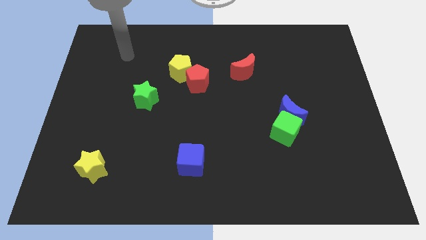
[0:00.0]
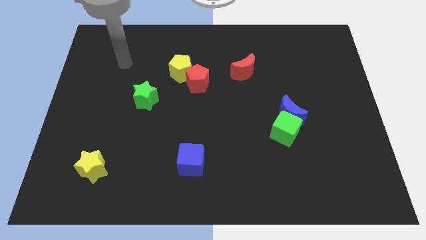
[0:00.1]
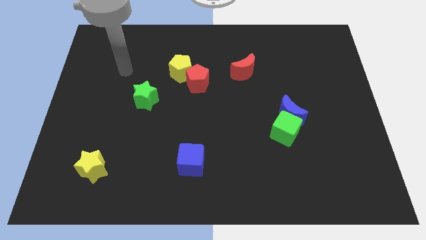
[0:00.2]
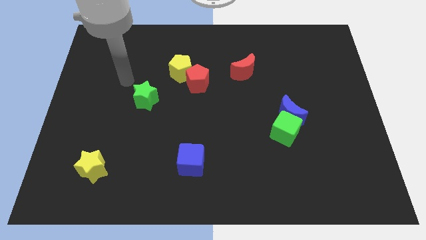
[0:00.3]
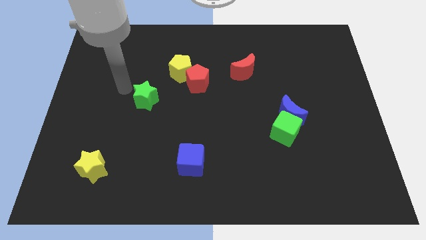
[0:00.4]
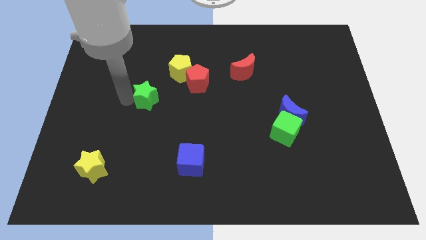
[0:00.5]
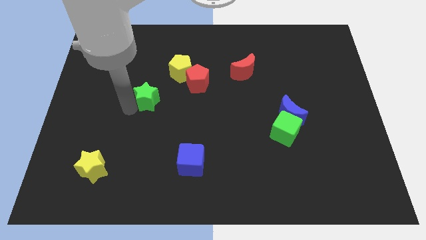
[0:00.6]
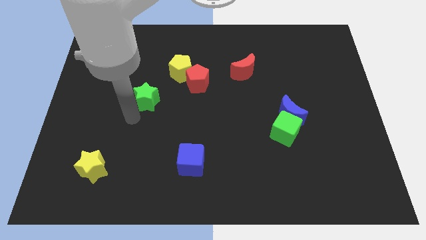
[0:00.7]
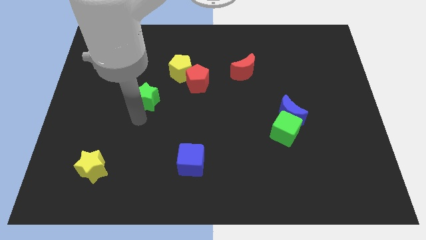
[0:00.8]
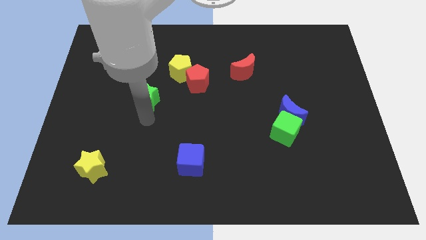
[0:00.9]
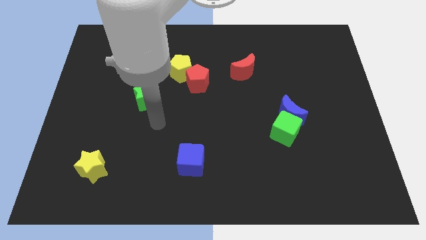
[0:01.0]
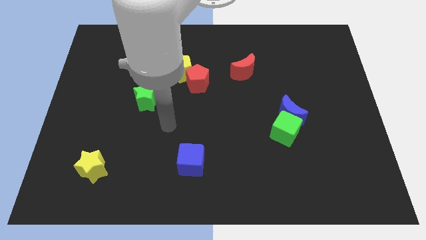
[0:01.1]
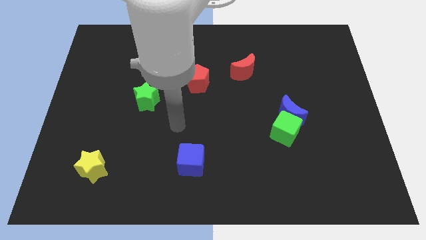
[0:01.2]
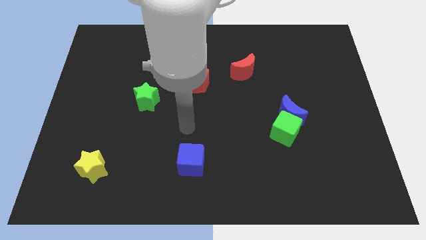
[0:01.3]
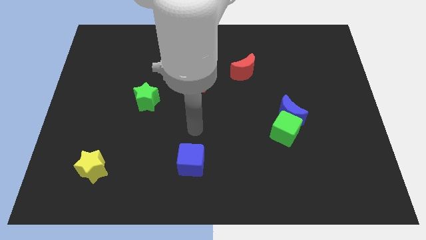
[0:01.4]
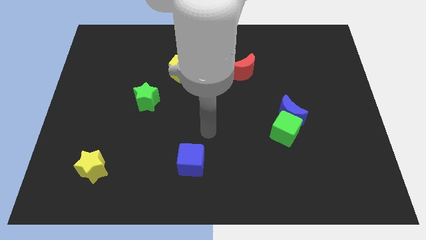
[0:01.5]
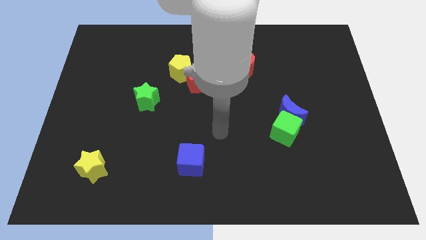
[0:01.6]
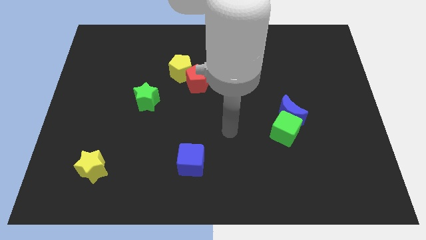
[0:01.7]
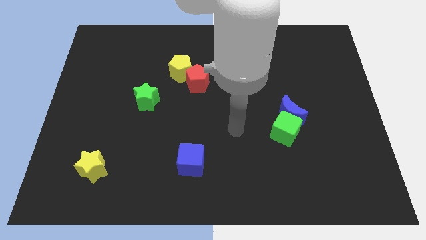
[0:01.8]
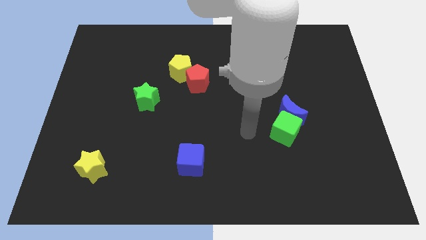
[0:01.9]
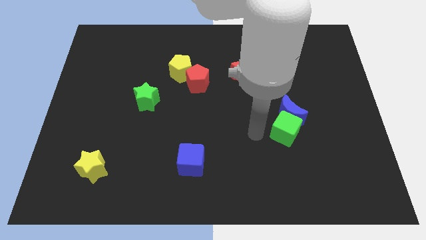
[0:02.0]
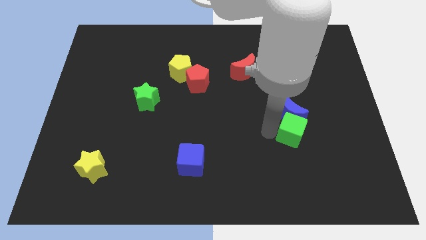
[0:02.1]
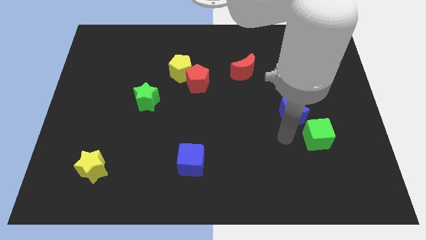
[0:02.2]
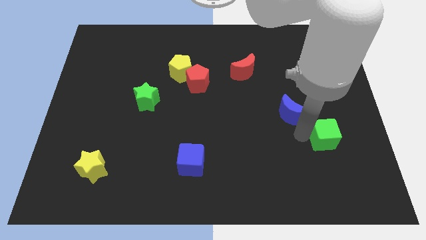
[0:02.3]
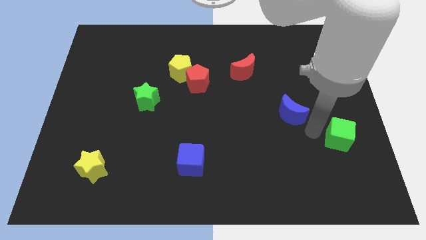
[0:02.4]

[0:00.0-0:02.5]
move the blue moon away from the green cube

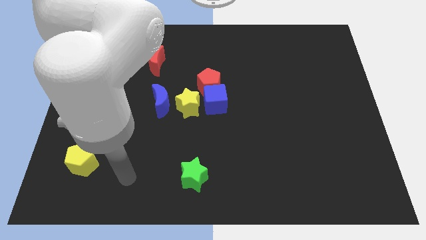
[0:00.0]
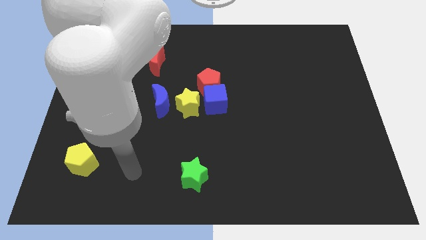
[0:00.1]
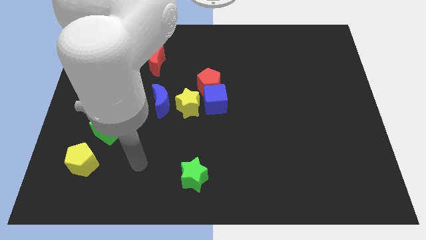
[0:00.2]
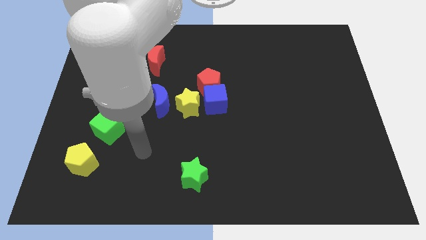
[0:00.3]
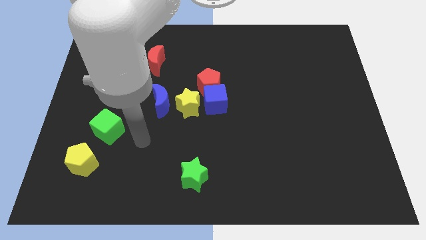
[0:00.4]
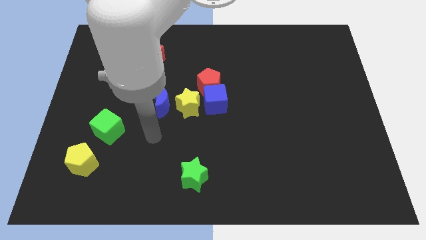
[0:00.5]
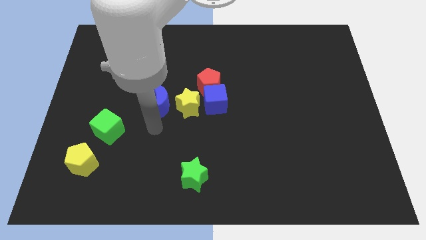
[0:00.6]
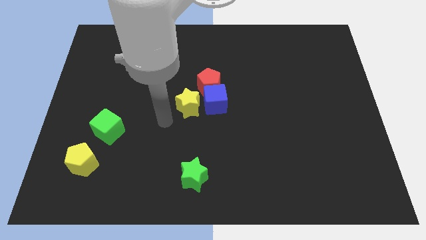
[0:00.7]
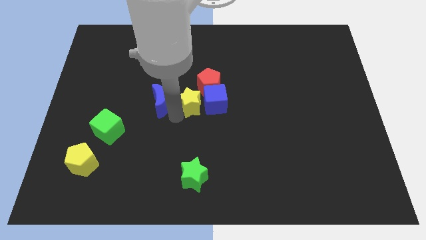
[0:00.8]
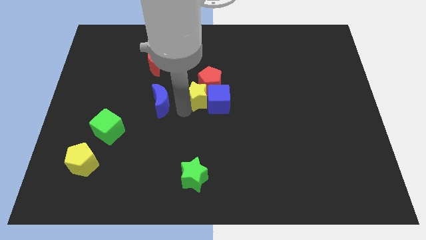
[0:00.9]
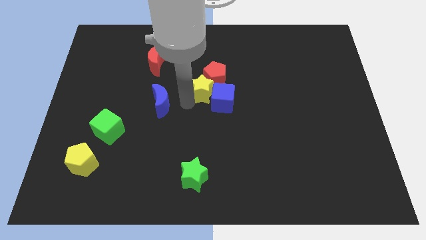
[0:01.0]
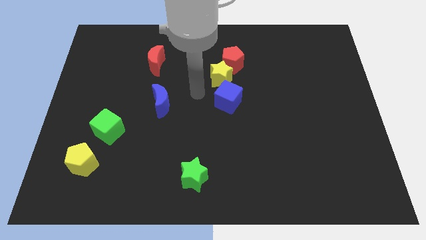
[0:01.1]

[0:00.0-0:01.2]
move the blue cube away from the red pentagon and yellow star

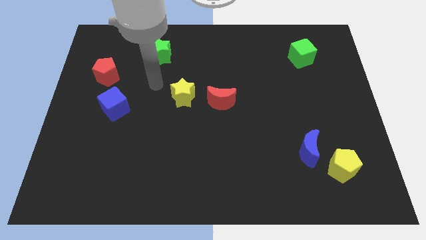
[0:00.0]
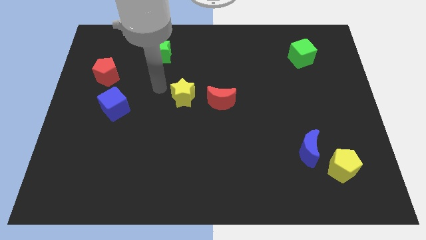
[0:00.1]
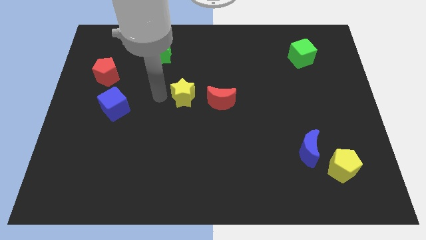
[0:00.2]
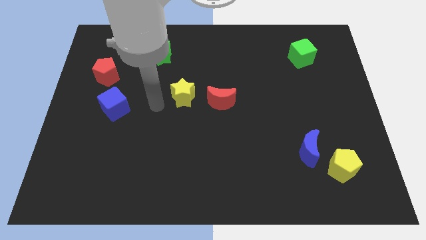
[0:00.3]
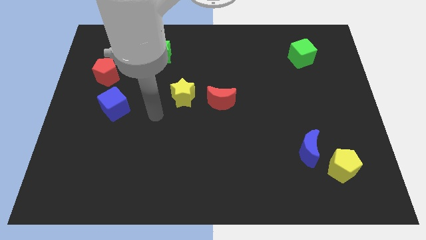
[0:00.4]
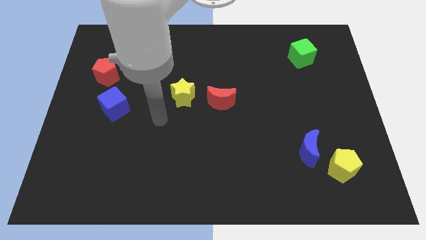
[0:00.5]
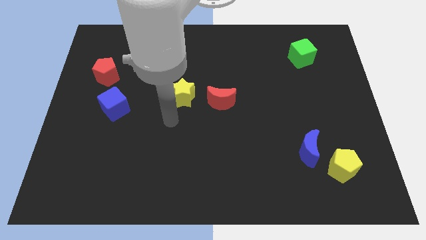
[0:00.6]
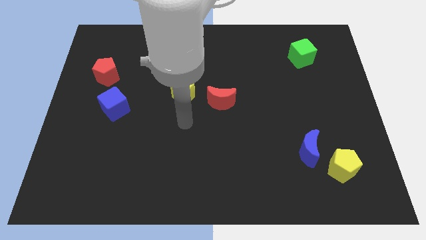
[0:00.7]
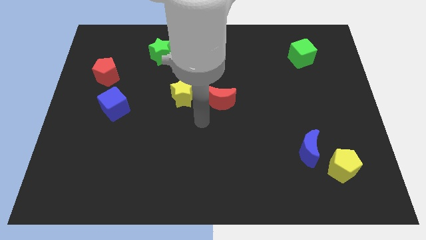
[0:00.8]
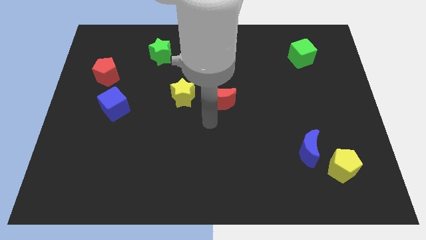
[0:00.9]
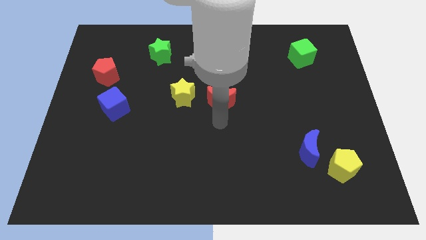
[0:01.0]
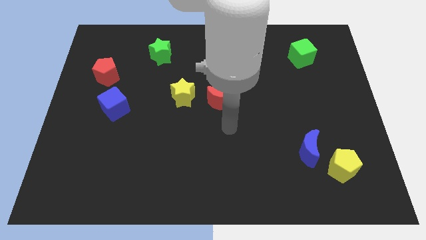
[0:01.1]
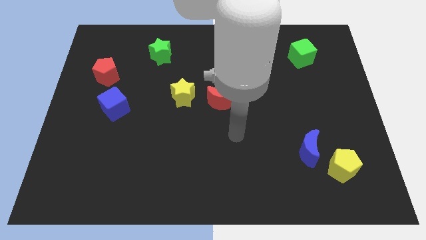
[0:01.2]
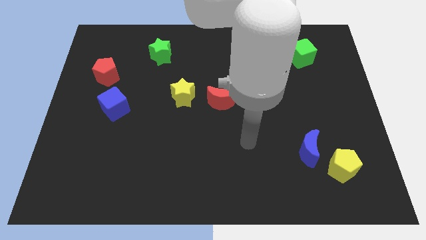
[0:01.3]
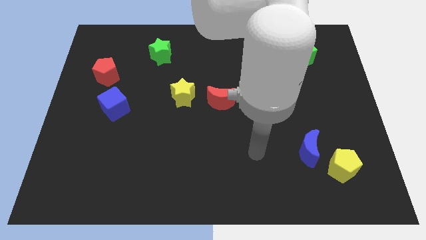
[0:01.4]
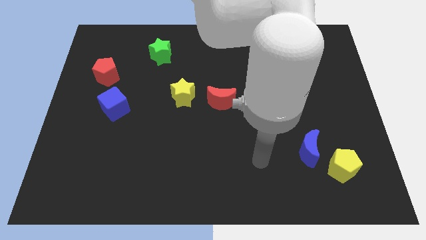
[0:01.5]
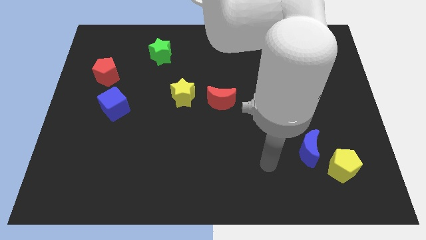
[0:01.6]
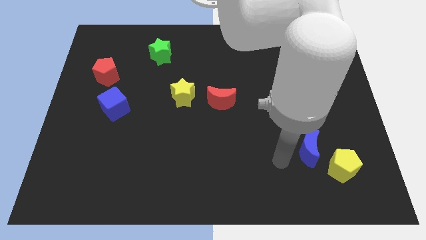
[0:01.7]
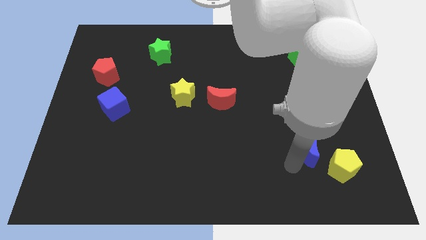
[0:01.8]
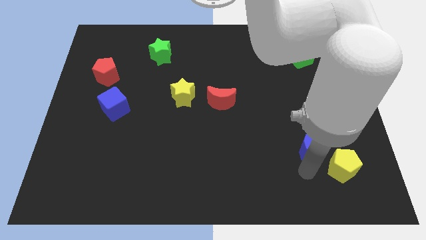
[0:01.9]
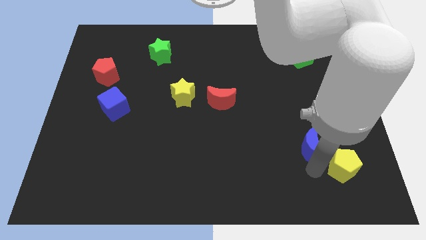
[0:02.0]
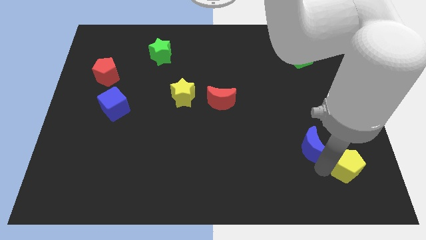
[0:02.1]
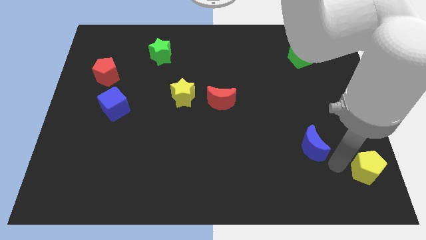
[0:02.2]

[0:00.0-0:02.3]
separate the blue moon from the yellow pentagon

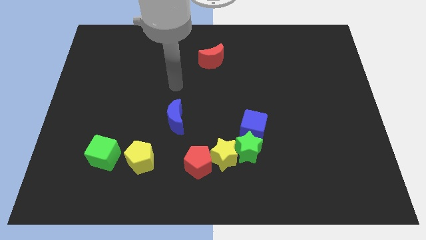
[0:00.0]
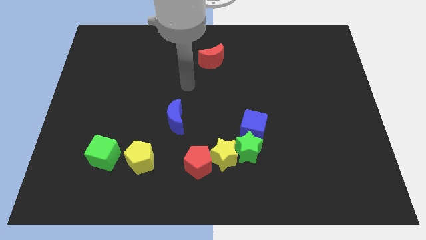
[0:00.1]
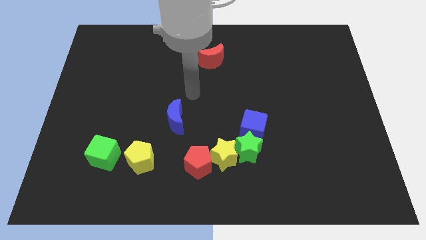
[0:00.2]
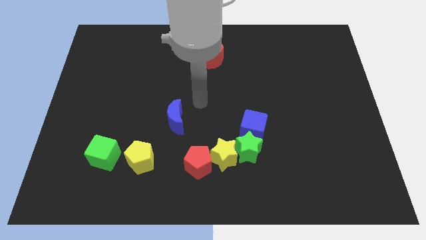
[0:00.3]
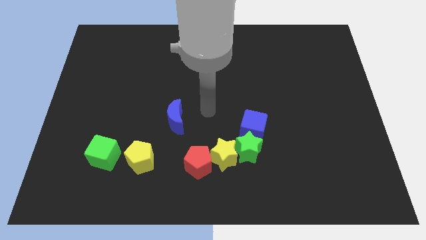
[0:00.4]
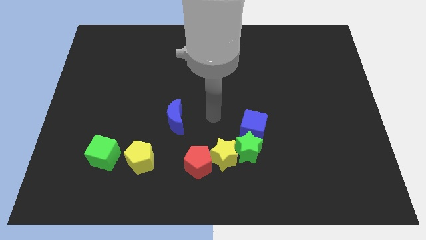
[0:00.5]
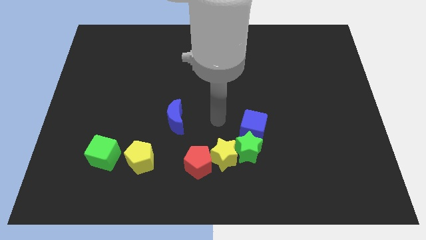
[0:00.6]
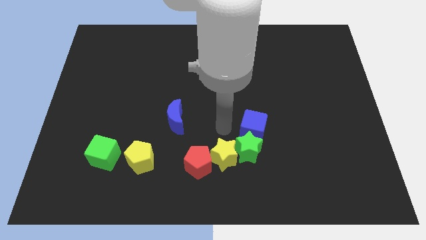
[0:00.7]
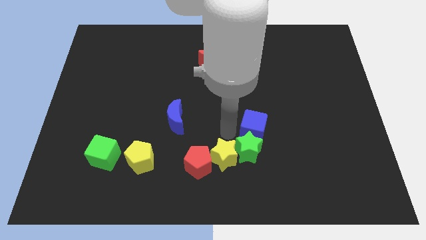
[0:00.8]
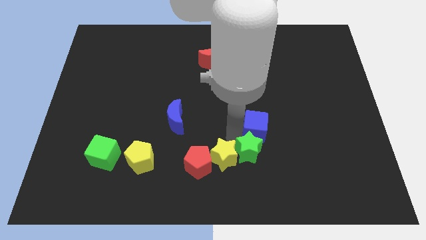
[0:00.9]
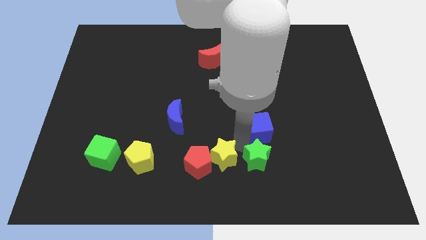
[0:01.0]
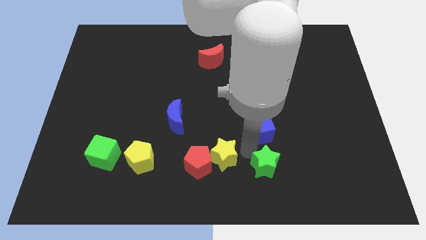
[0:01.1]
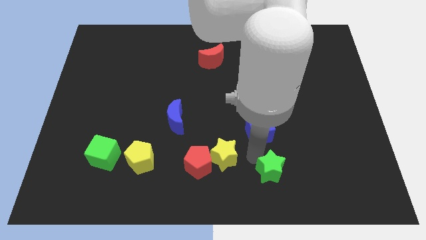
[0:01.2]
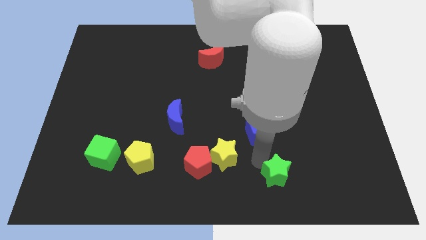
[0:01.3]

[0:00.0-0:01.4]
pull the green star apart from the yellow star and blue cube

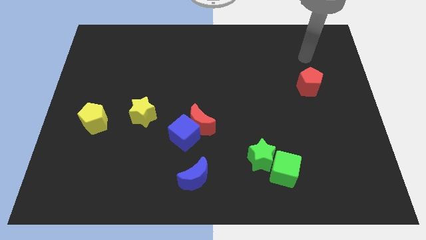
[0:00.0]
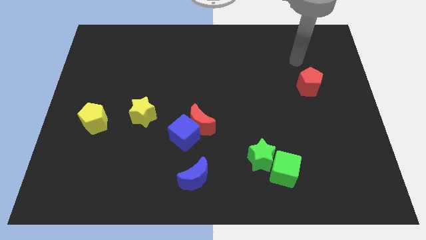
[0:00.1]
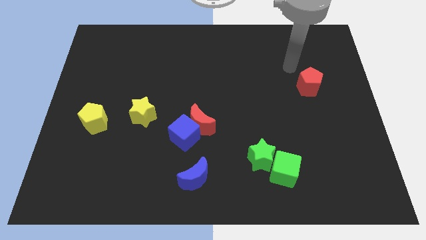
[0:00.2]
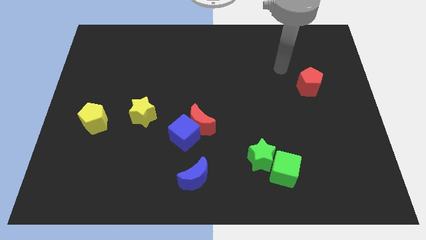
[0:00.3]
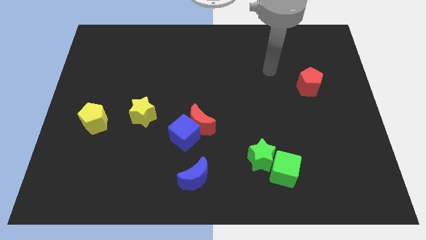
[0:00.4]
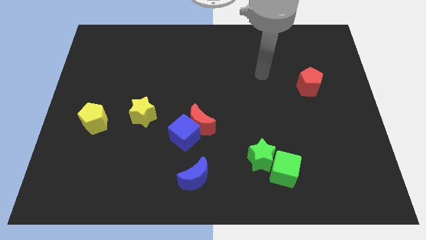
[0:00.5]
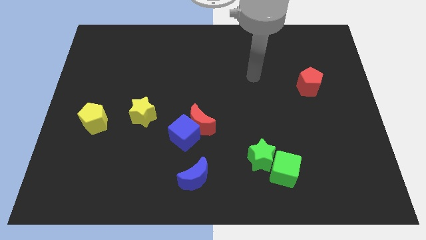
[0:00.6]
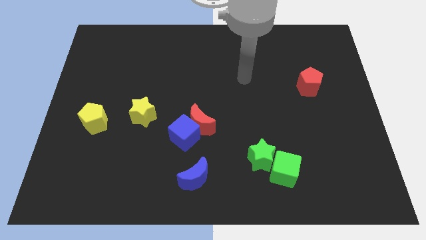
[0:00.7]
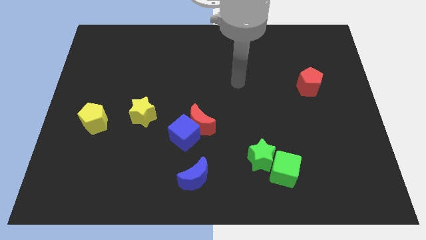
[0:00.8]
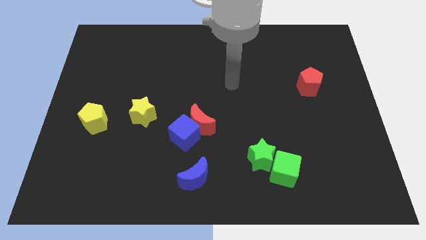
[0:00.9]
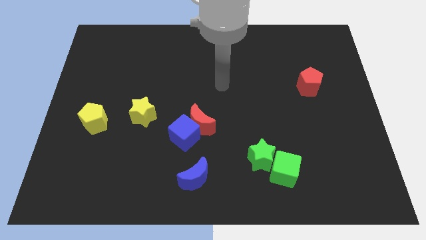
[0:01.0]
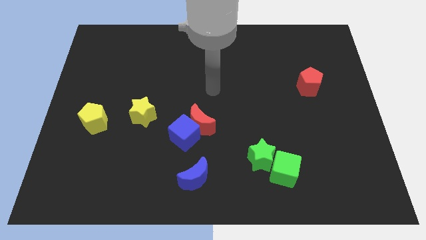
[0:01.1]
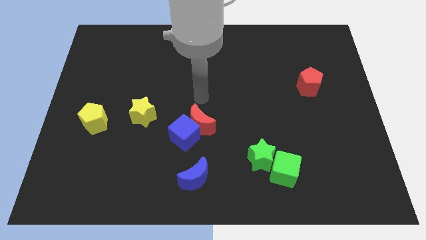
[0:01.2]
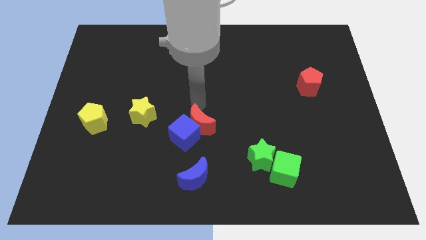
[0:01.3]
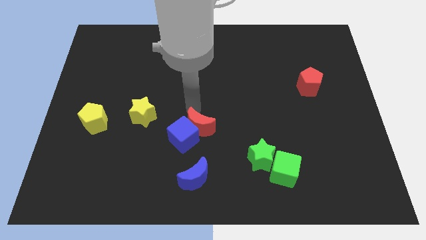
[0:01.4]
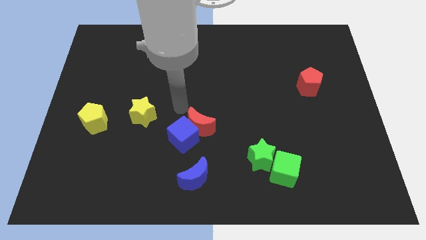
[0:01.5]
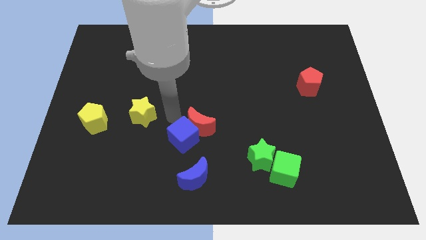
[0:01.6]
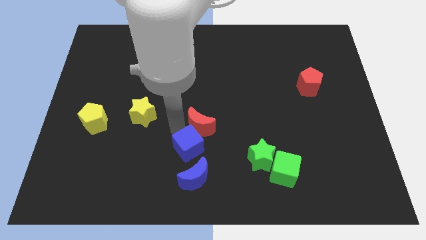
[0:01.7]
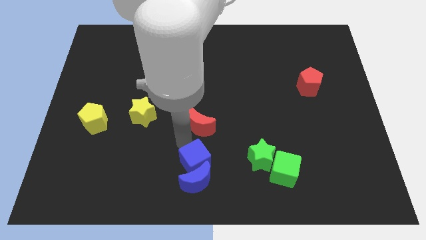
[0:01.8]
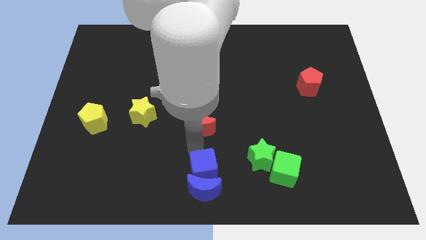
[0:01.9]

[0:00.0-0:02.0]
pull the red moon apart from the blue cube
